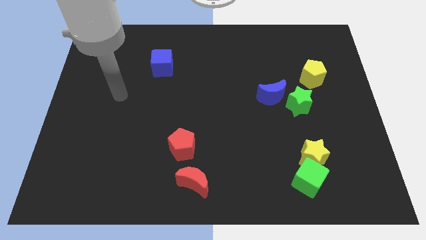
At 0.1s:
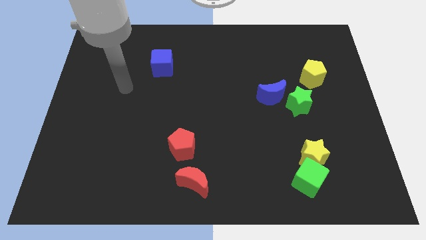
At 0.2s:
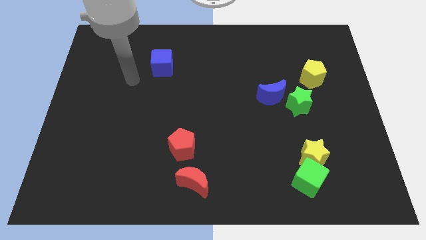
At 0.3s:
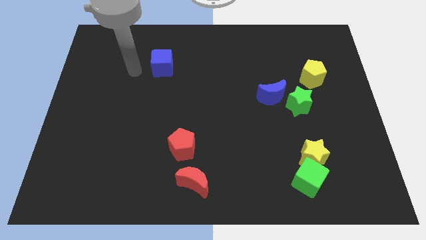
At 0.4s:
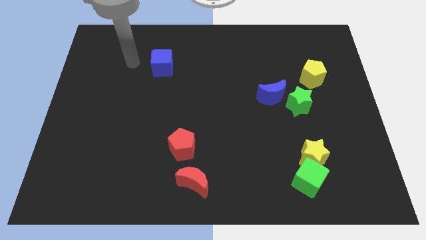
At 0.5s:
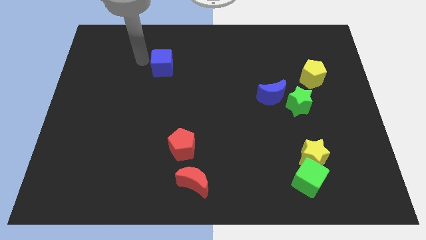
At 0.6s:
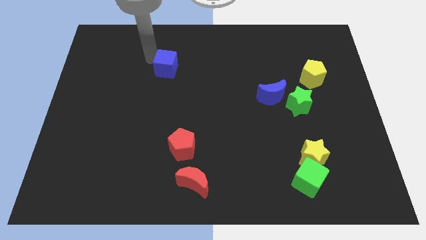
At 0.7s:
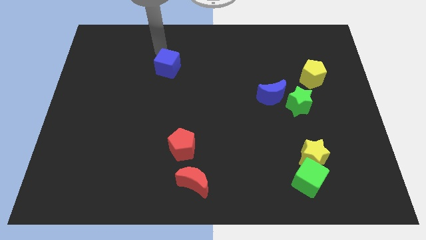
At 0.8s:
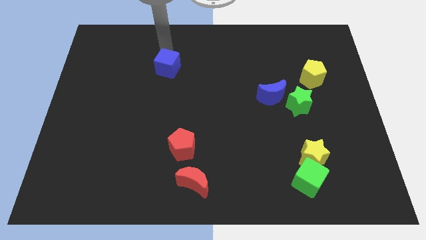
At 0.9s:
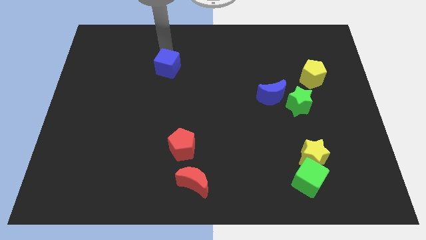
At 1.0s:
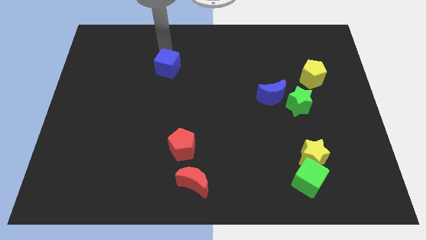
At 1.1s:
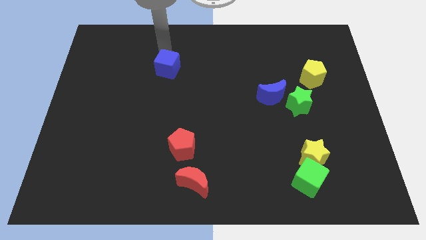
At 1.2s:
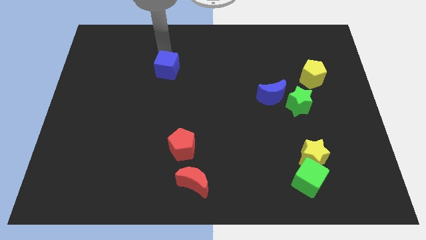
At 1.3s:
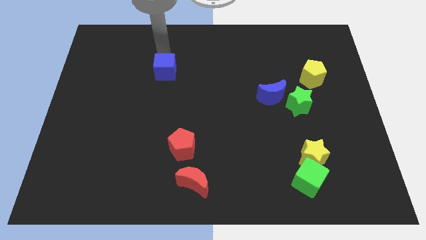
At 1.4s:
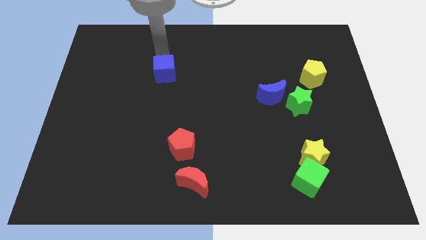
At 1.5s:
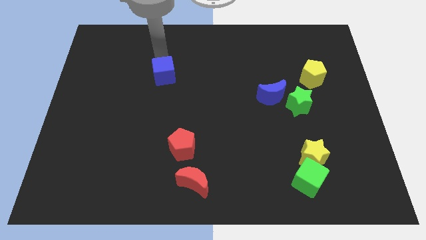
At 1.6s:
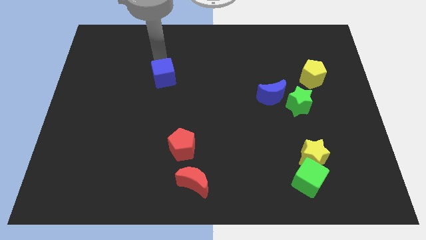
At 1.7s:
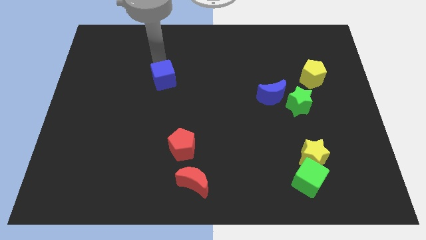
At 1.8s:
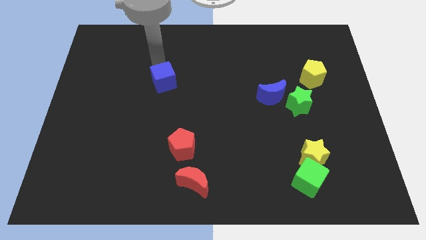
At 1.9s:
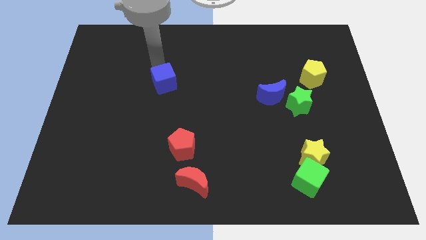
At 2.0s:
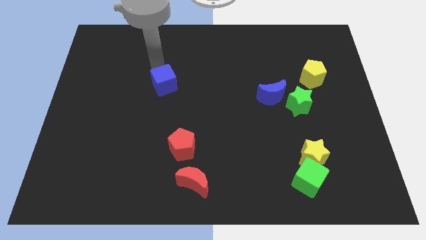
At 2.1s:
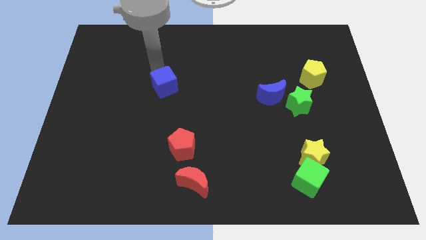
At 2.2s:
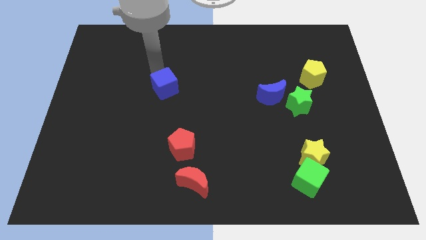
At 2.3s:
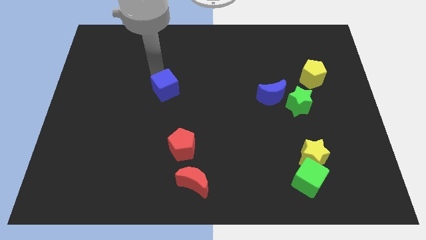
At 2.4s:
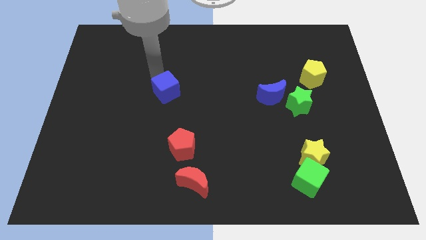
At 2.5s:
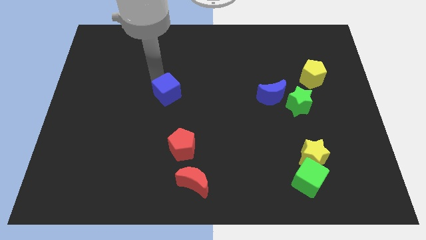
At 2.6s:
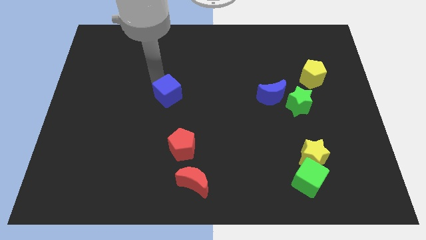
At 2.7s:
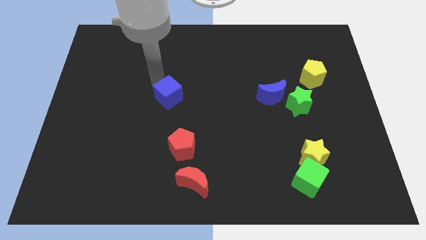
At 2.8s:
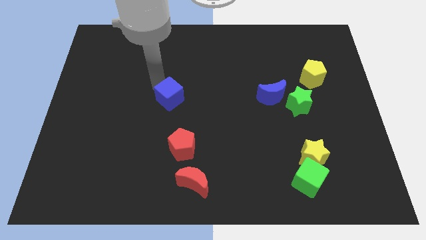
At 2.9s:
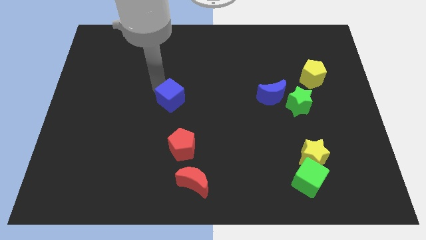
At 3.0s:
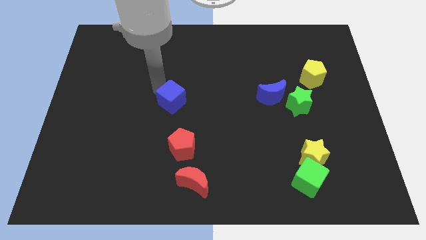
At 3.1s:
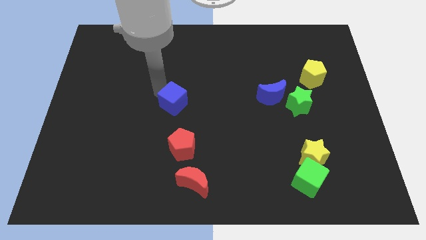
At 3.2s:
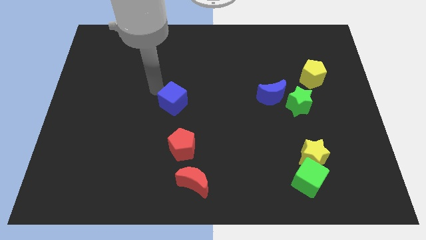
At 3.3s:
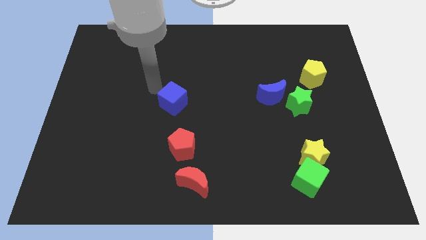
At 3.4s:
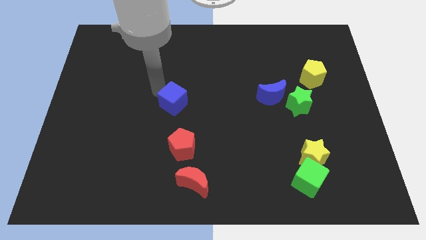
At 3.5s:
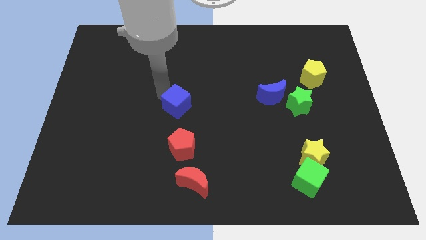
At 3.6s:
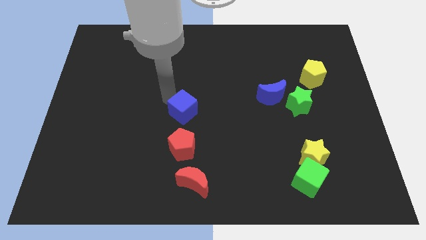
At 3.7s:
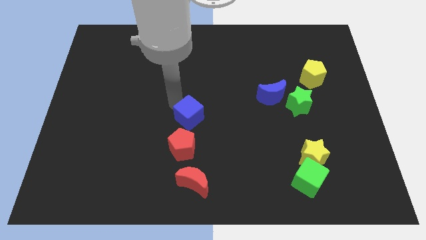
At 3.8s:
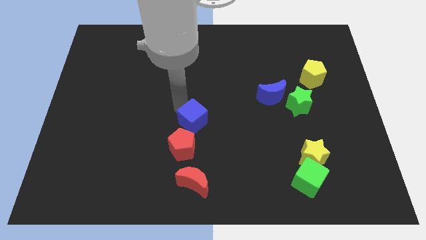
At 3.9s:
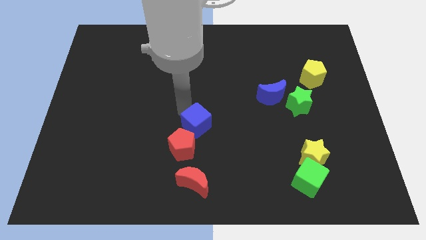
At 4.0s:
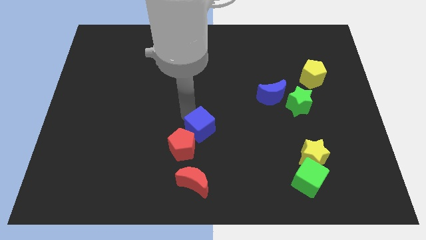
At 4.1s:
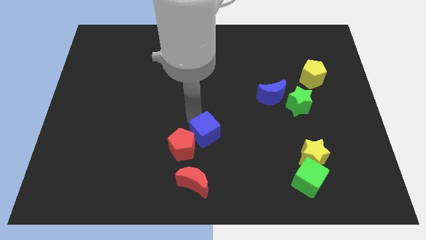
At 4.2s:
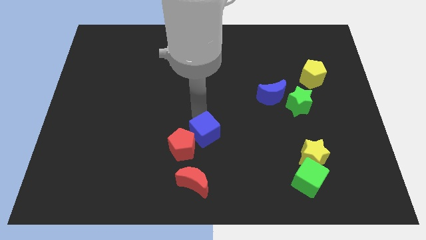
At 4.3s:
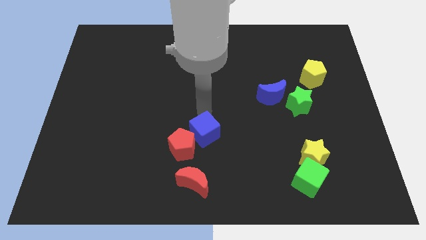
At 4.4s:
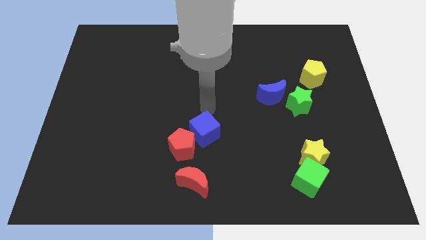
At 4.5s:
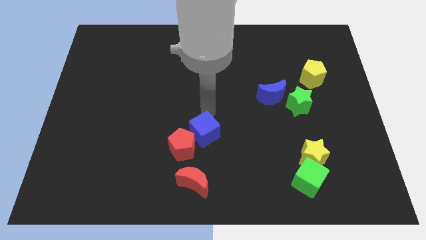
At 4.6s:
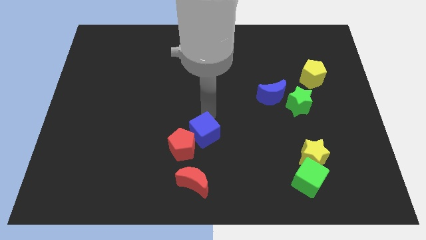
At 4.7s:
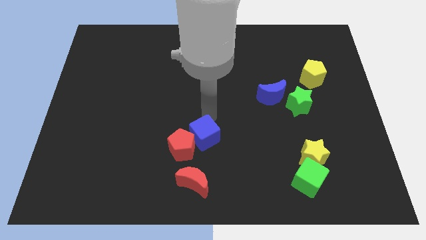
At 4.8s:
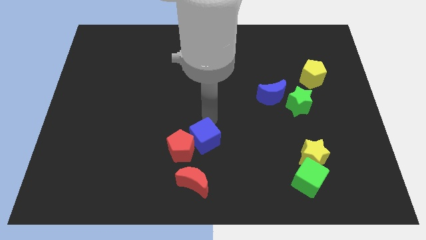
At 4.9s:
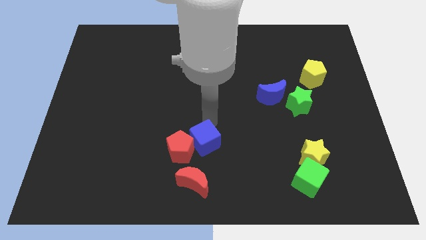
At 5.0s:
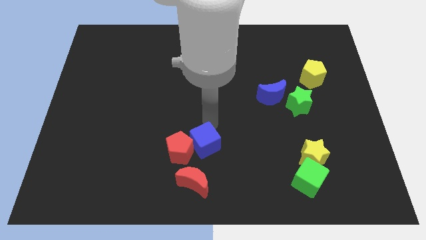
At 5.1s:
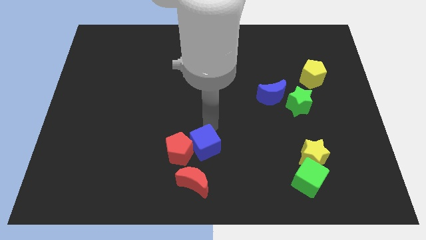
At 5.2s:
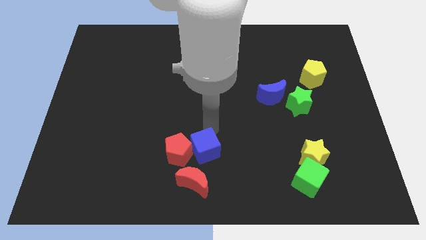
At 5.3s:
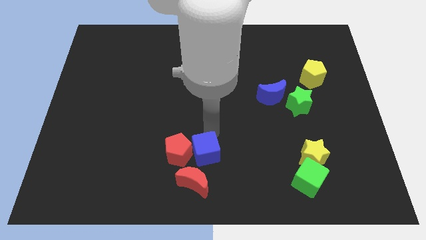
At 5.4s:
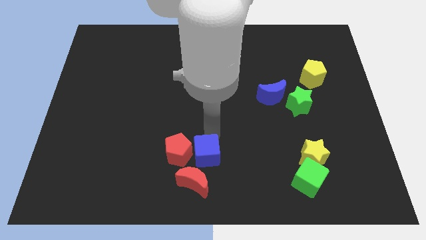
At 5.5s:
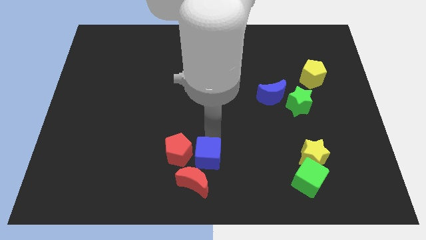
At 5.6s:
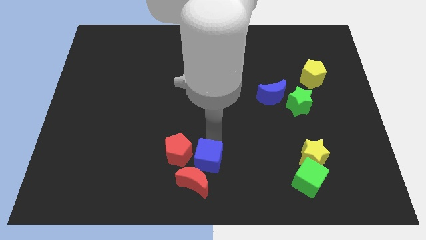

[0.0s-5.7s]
move the blue cube next to the red moon

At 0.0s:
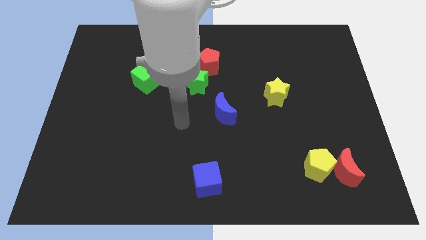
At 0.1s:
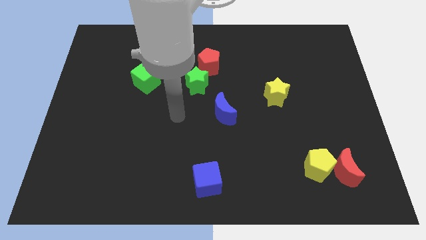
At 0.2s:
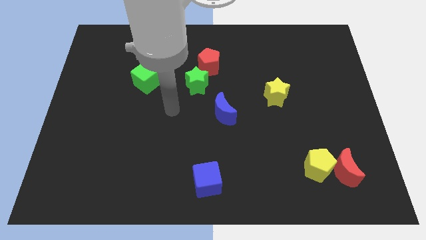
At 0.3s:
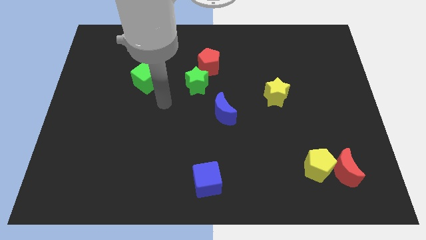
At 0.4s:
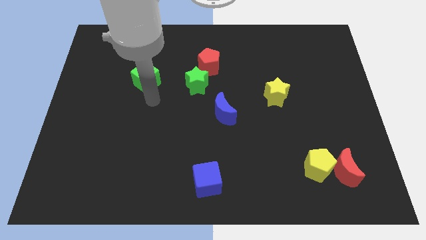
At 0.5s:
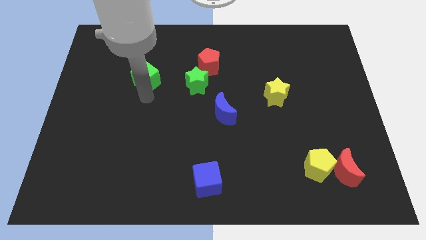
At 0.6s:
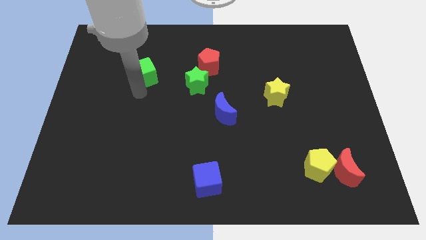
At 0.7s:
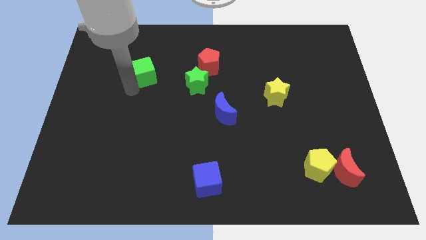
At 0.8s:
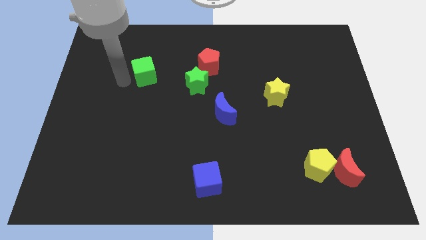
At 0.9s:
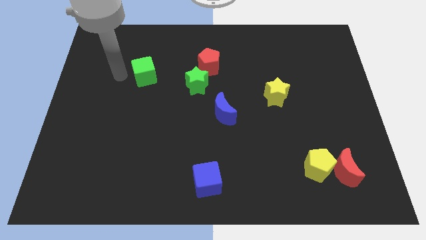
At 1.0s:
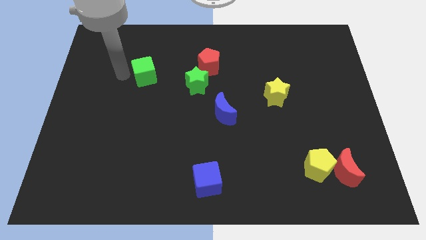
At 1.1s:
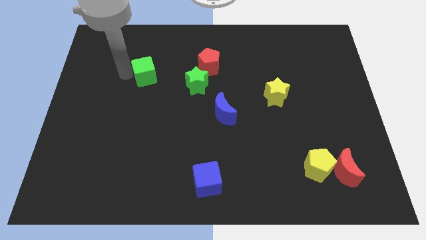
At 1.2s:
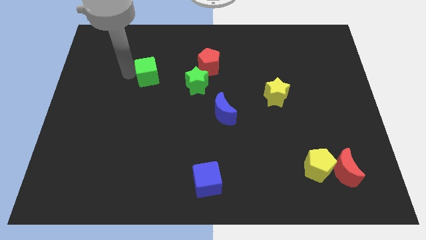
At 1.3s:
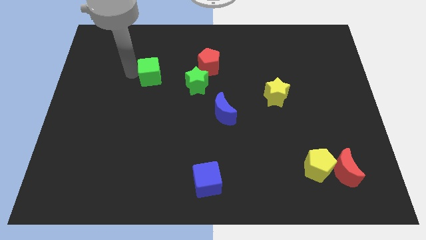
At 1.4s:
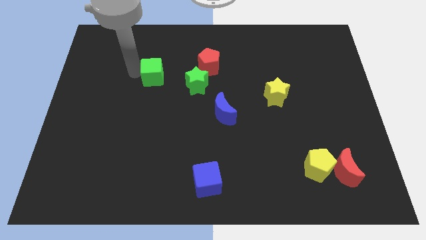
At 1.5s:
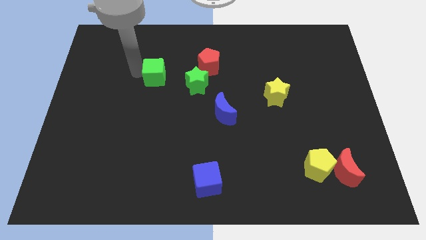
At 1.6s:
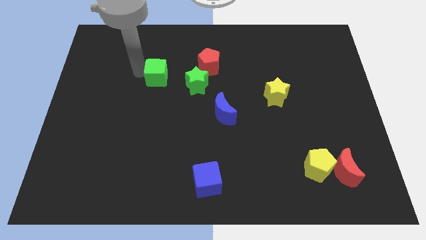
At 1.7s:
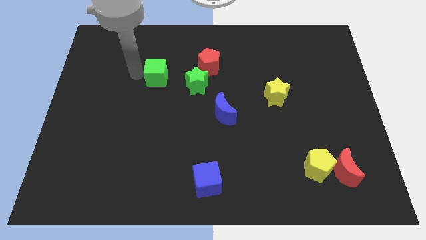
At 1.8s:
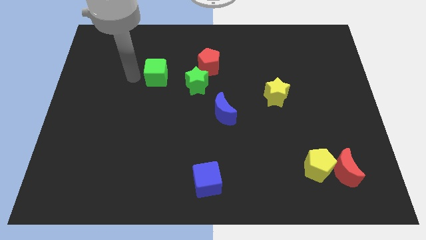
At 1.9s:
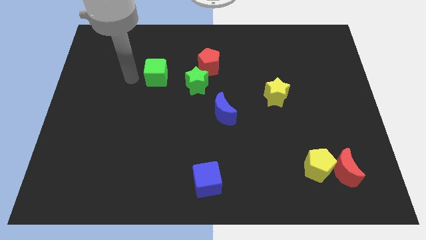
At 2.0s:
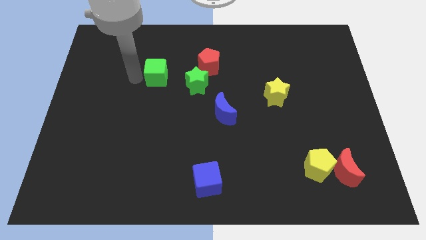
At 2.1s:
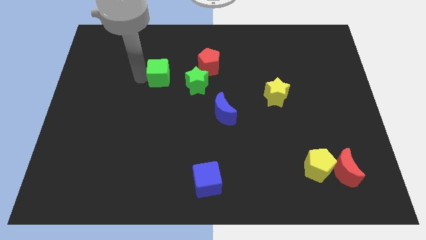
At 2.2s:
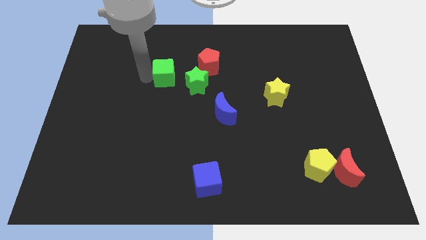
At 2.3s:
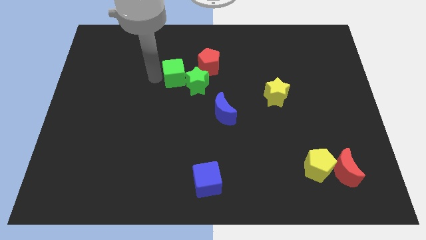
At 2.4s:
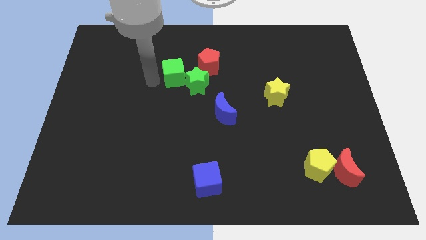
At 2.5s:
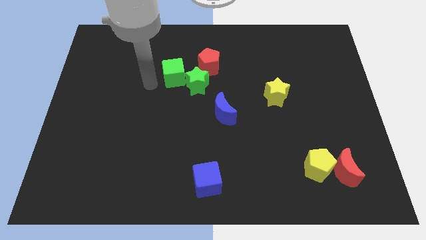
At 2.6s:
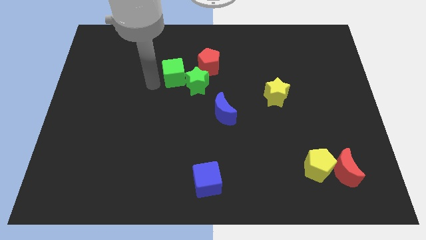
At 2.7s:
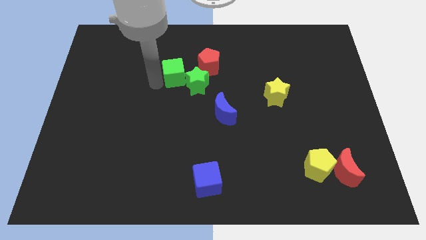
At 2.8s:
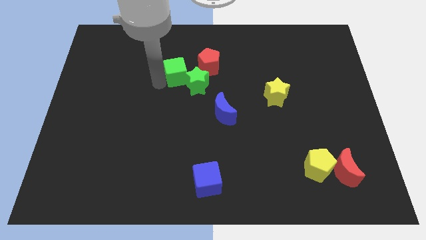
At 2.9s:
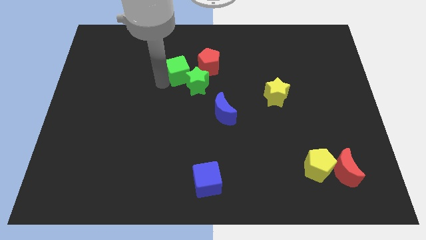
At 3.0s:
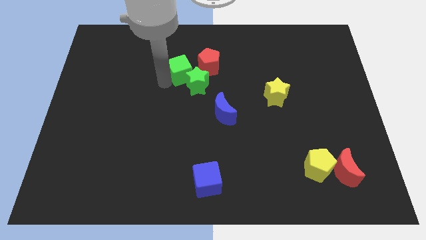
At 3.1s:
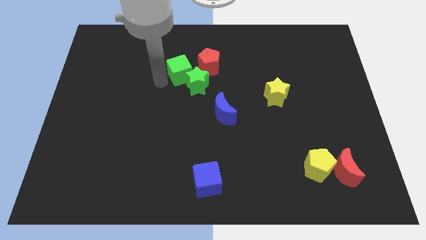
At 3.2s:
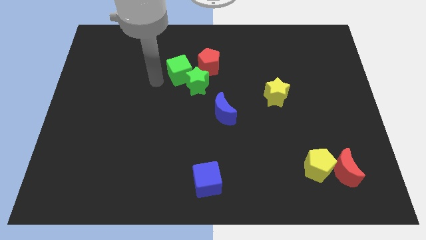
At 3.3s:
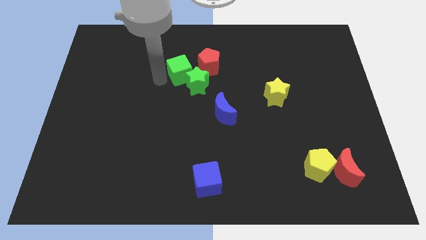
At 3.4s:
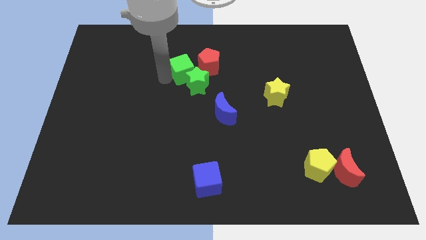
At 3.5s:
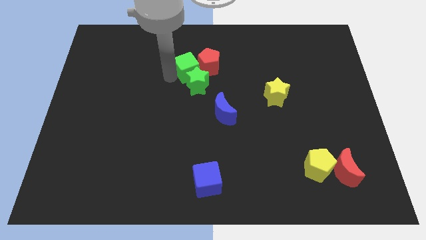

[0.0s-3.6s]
push the green cube close to the red pentagon
